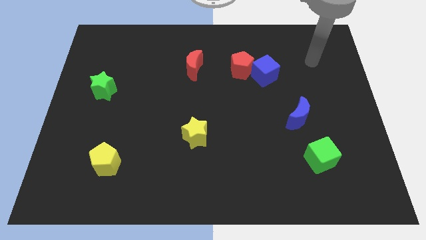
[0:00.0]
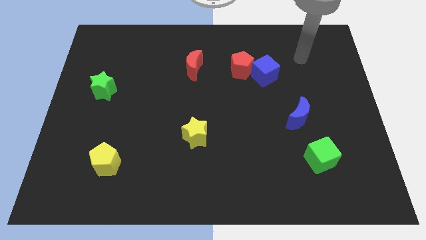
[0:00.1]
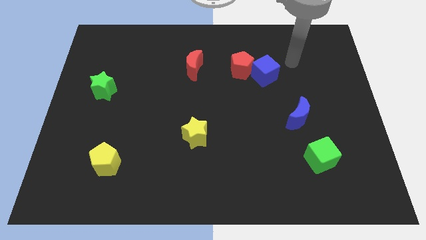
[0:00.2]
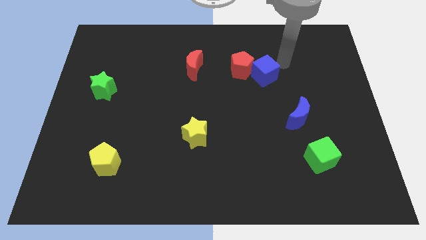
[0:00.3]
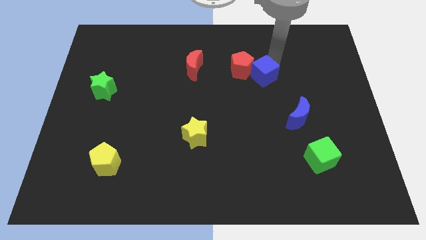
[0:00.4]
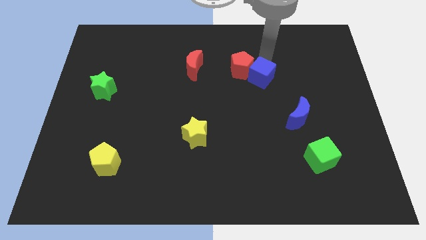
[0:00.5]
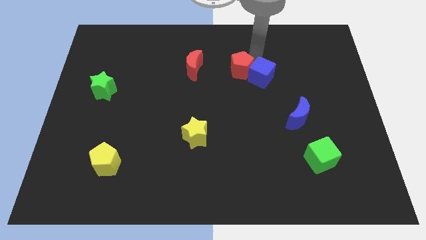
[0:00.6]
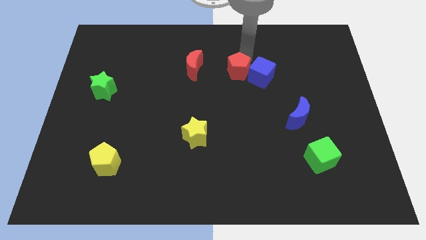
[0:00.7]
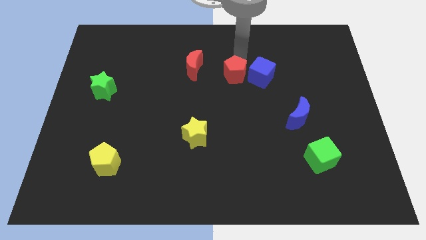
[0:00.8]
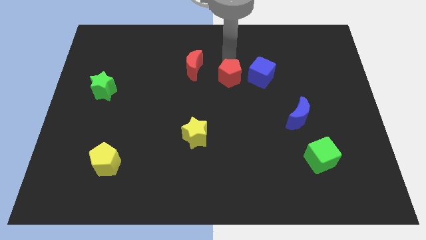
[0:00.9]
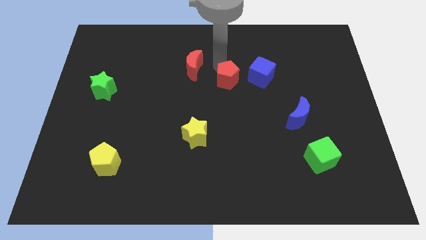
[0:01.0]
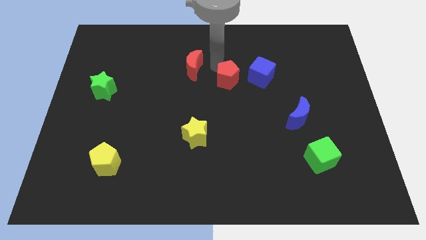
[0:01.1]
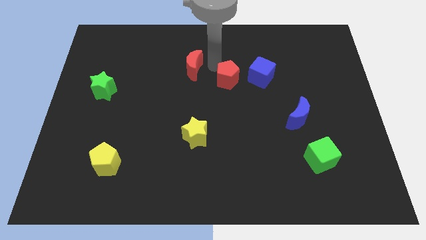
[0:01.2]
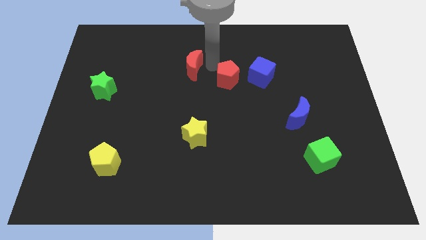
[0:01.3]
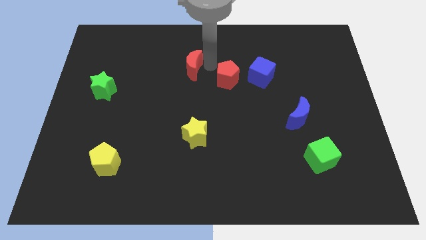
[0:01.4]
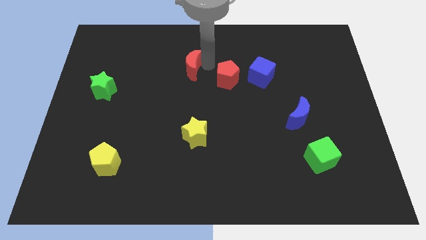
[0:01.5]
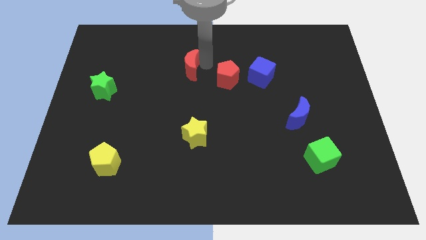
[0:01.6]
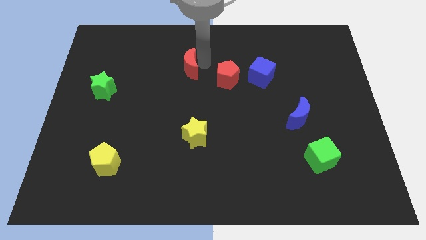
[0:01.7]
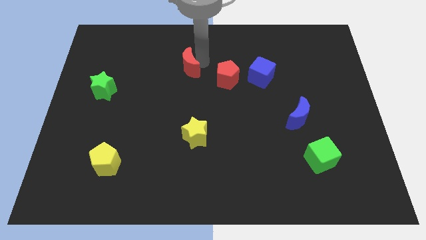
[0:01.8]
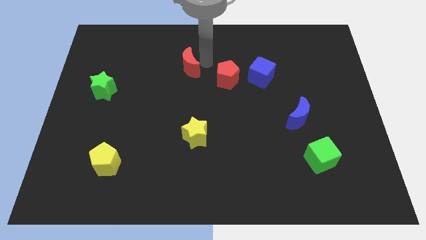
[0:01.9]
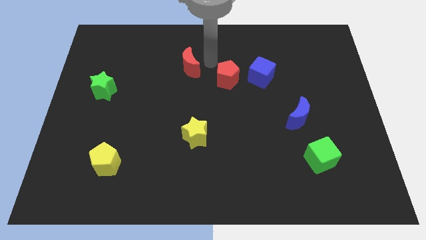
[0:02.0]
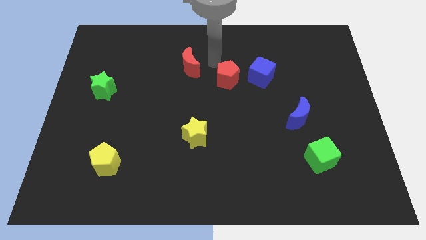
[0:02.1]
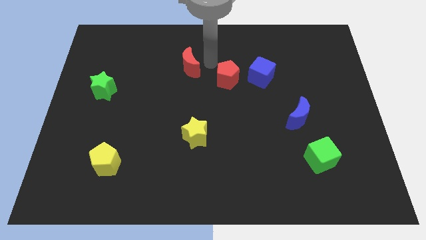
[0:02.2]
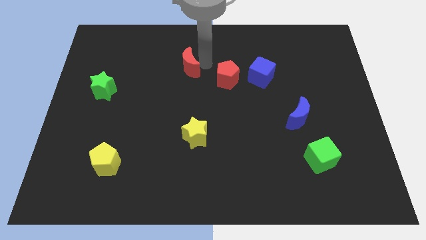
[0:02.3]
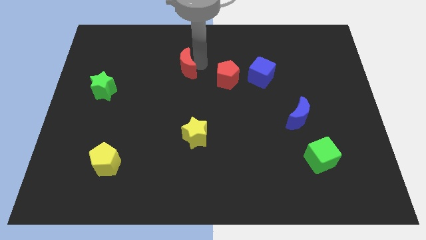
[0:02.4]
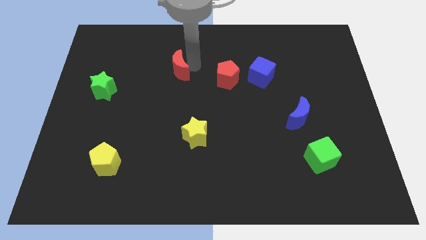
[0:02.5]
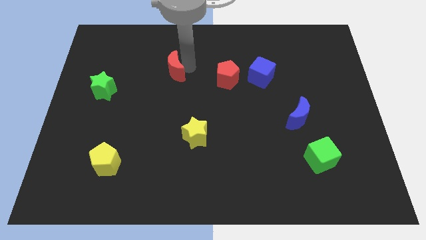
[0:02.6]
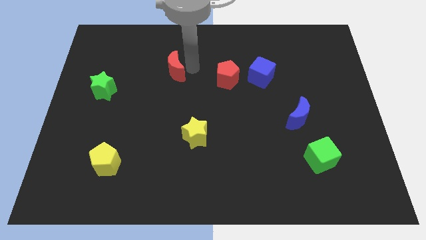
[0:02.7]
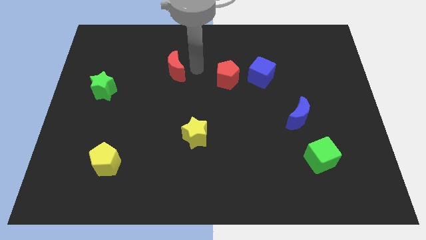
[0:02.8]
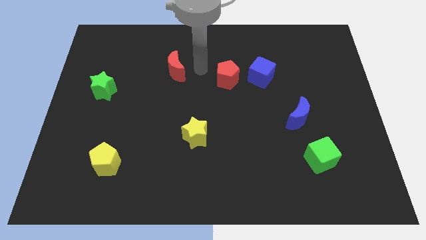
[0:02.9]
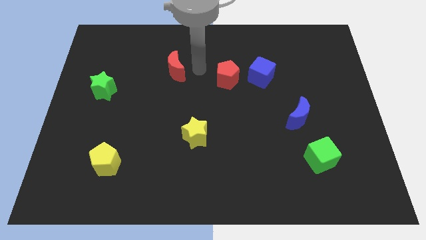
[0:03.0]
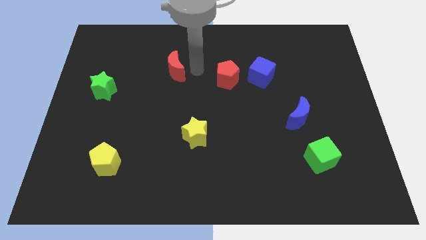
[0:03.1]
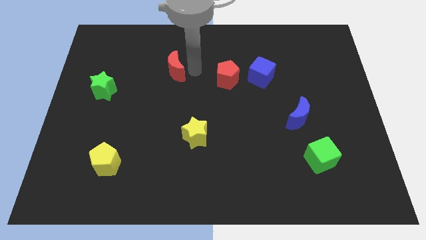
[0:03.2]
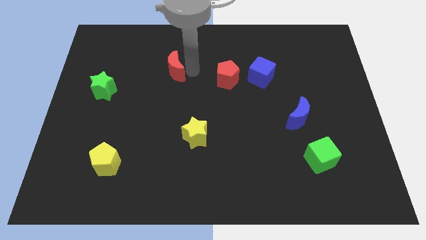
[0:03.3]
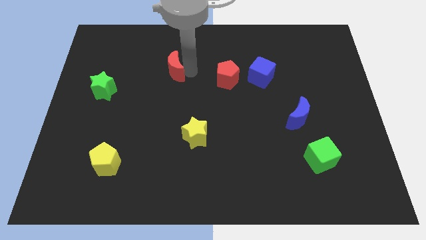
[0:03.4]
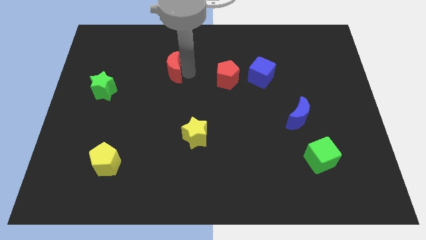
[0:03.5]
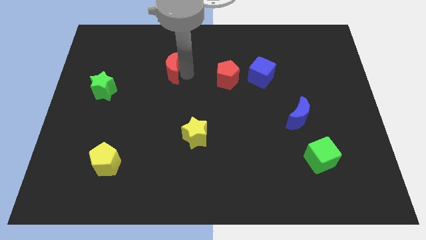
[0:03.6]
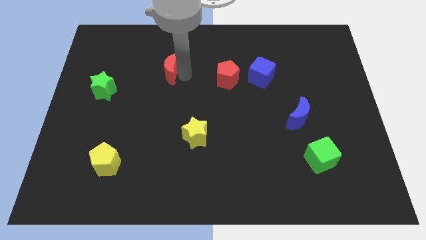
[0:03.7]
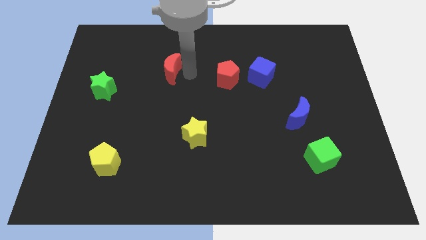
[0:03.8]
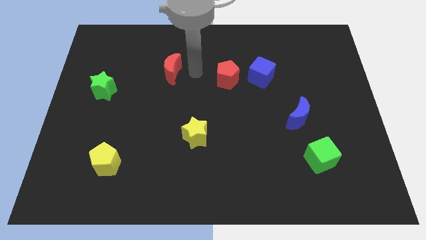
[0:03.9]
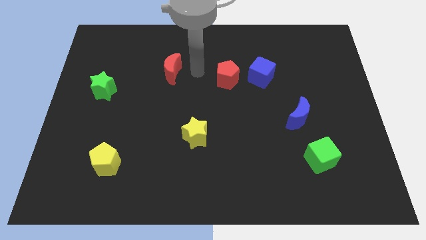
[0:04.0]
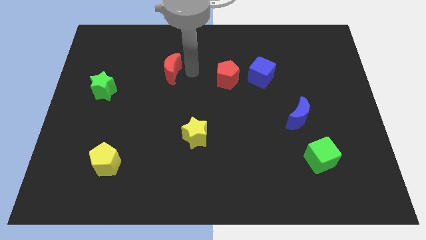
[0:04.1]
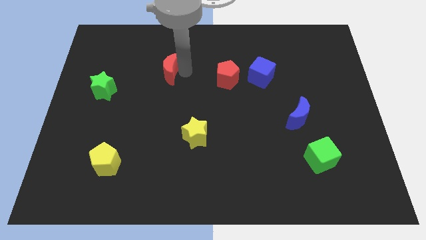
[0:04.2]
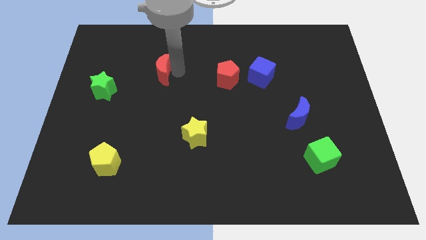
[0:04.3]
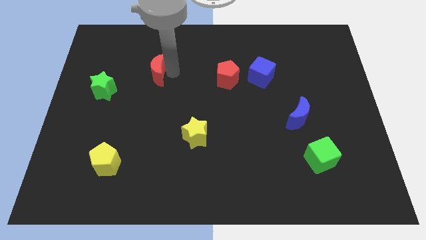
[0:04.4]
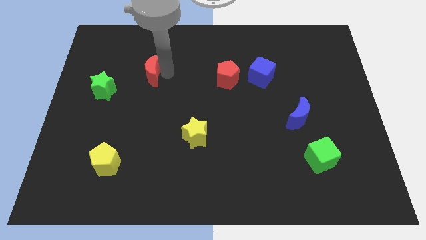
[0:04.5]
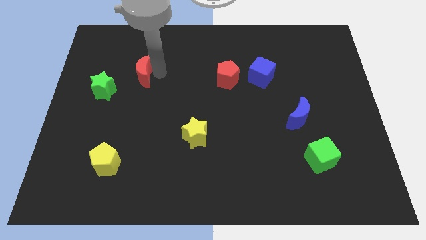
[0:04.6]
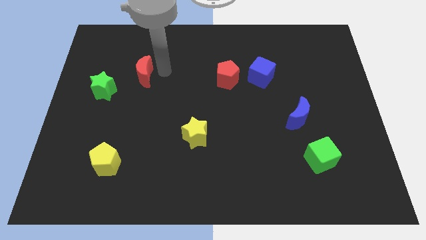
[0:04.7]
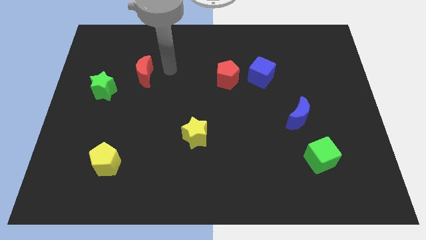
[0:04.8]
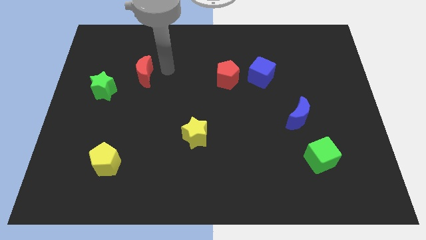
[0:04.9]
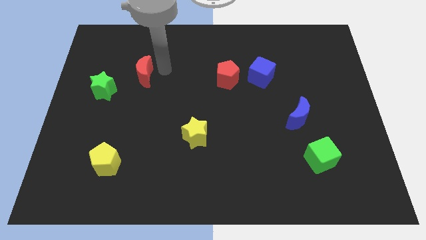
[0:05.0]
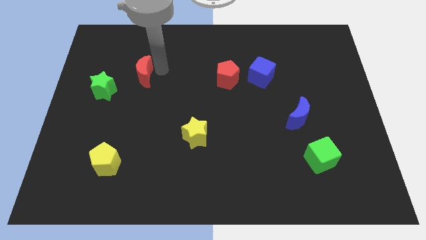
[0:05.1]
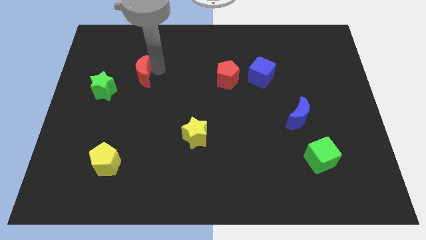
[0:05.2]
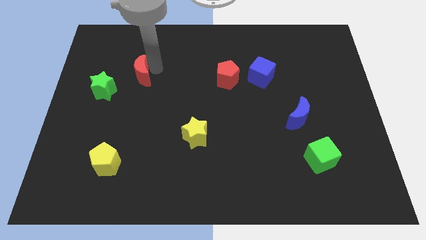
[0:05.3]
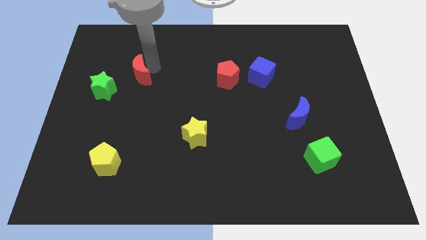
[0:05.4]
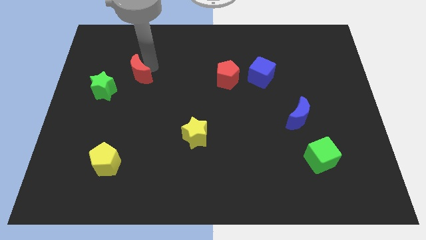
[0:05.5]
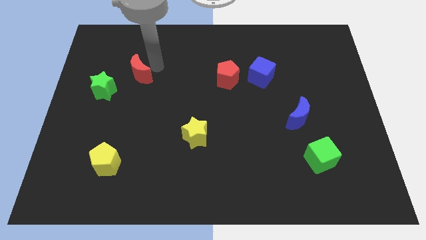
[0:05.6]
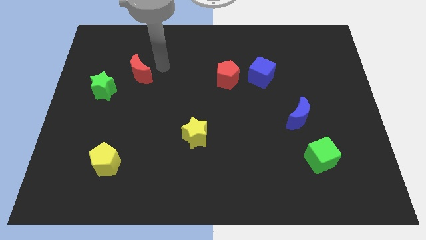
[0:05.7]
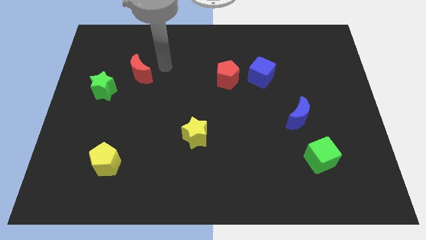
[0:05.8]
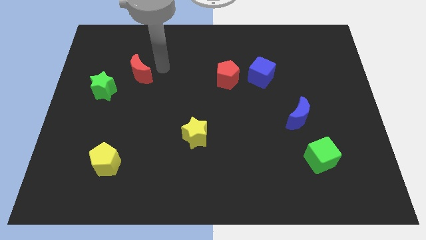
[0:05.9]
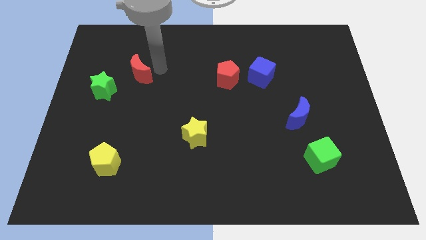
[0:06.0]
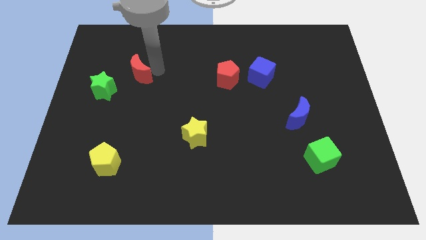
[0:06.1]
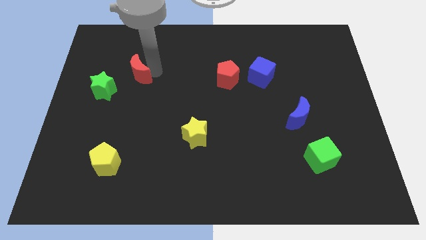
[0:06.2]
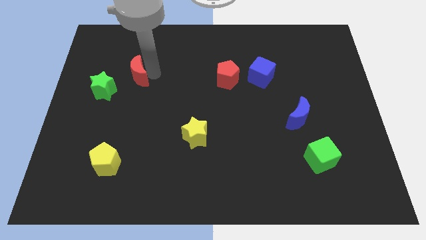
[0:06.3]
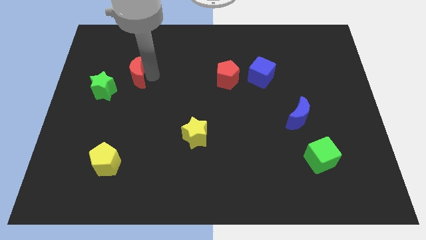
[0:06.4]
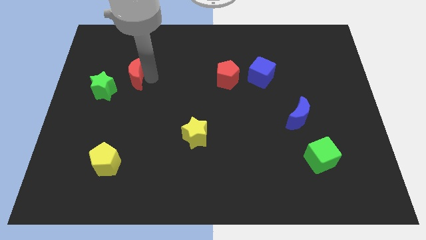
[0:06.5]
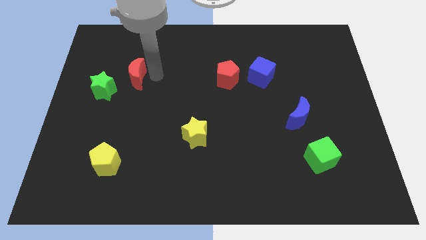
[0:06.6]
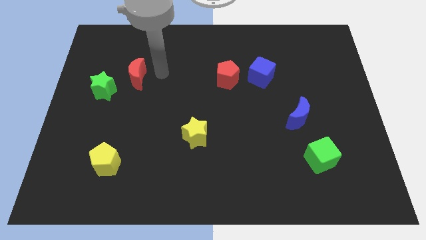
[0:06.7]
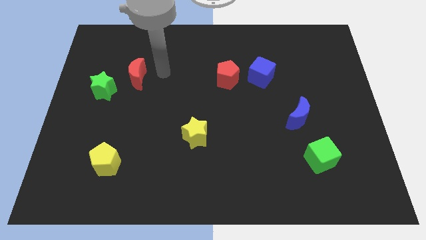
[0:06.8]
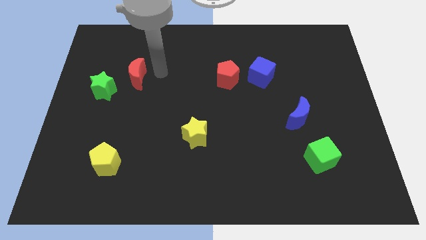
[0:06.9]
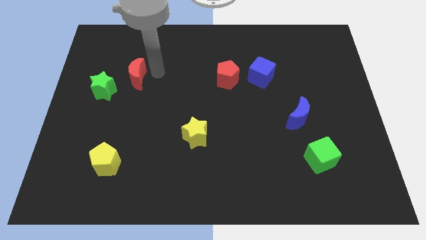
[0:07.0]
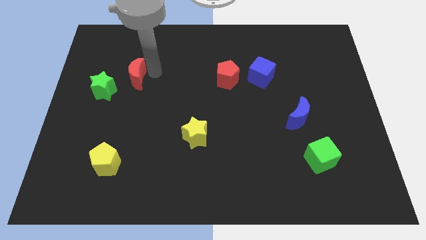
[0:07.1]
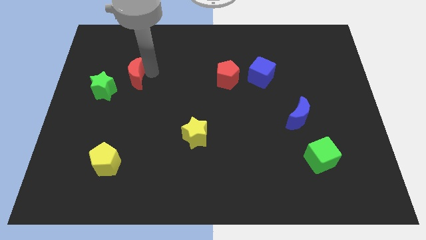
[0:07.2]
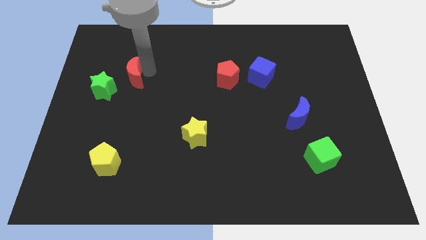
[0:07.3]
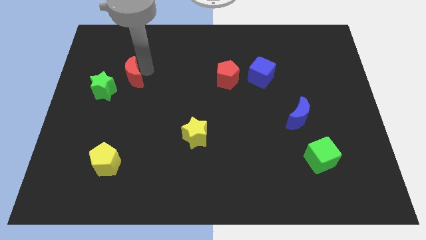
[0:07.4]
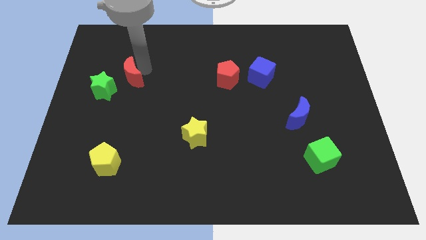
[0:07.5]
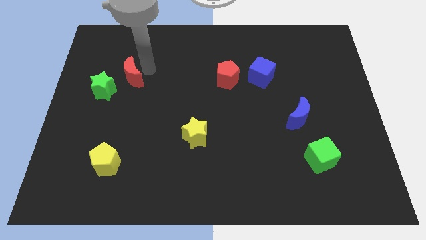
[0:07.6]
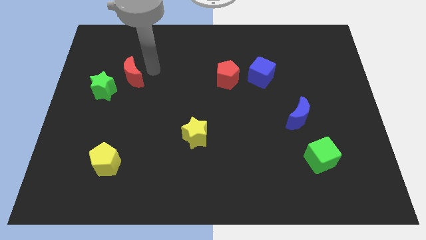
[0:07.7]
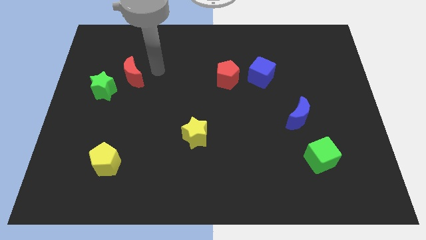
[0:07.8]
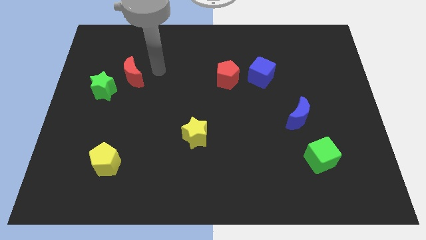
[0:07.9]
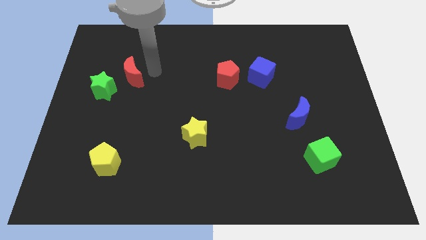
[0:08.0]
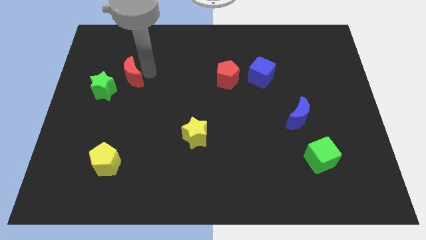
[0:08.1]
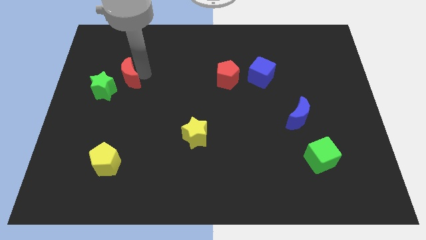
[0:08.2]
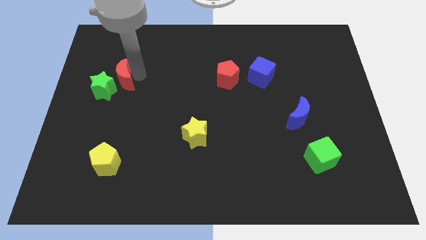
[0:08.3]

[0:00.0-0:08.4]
move the red moon towards the green star
